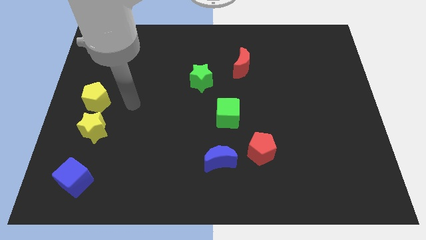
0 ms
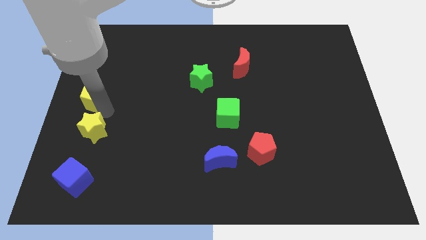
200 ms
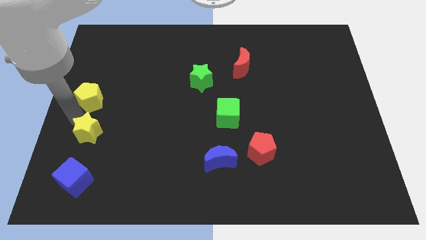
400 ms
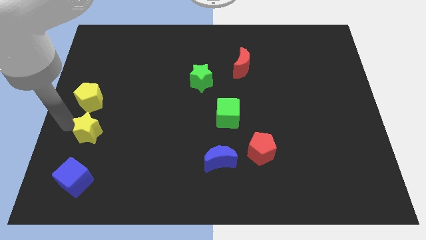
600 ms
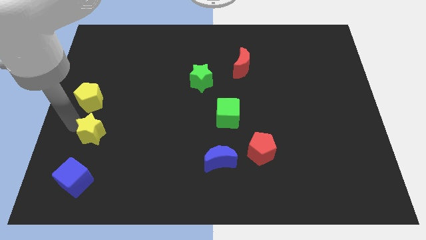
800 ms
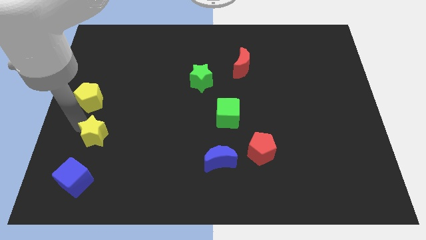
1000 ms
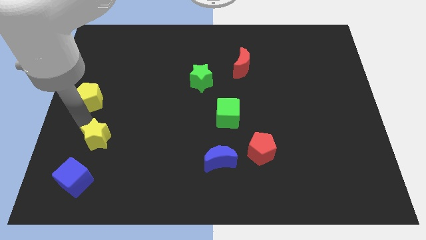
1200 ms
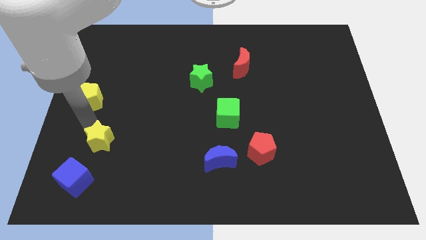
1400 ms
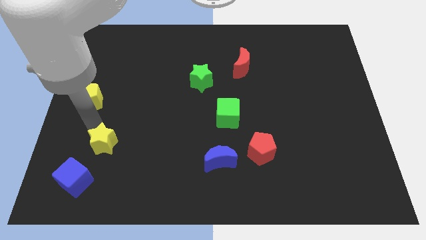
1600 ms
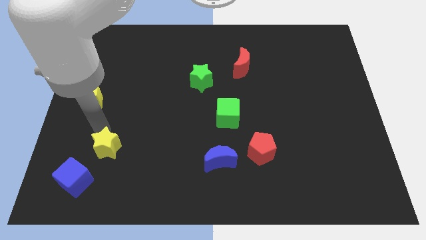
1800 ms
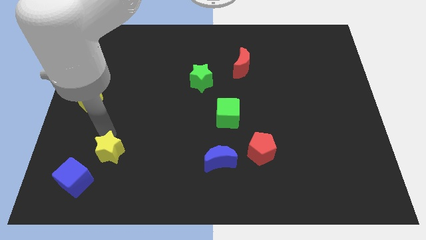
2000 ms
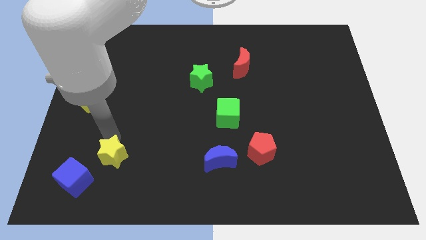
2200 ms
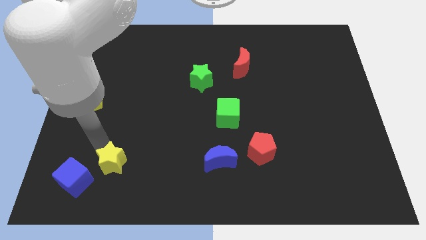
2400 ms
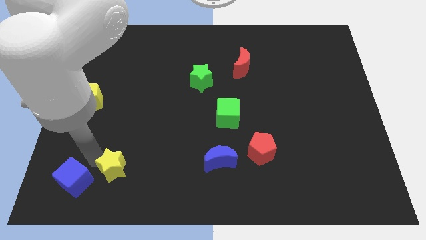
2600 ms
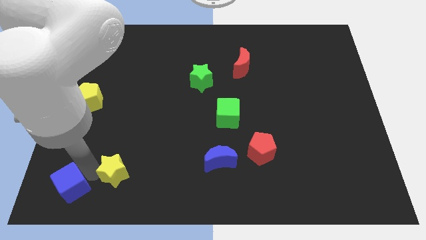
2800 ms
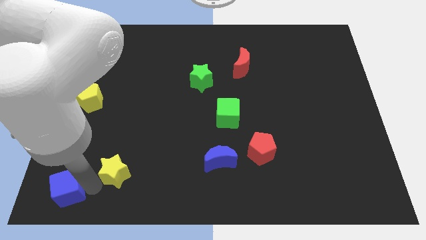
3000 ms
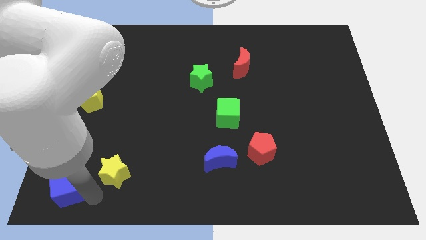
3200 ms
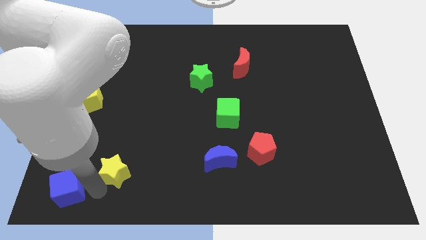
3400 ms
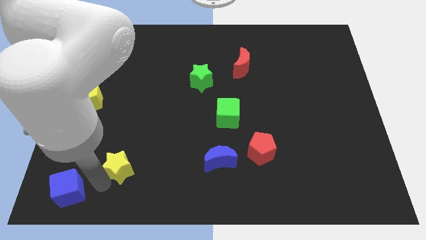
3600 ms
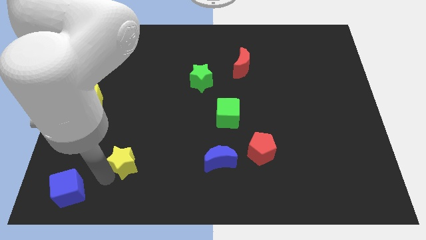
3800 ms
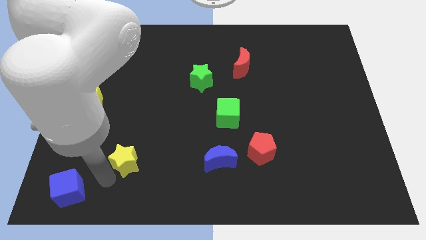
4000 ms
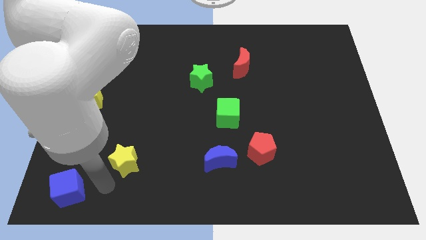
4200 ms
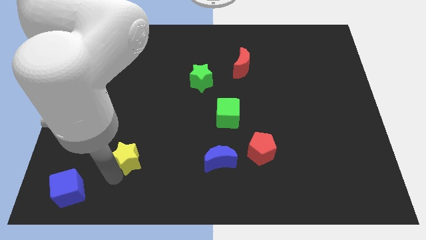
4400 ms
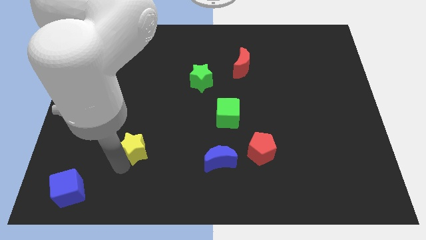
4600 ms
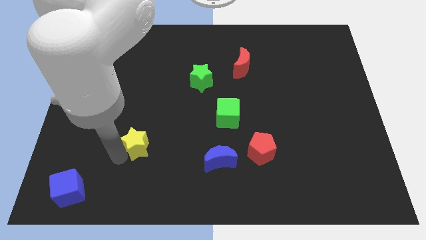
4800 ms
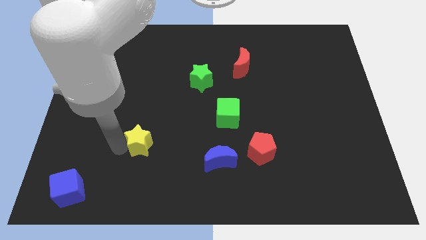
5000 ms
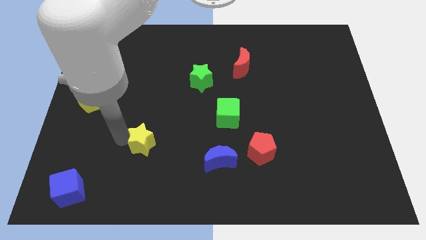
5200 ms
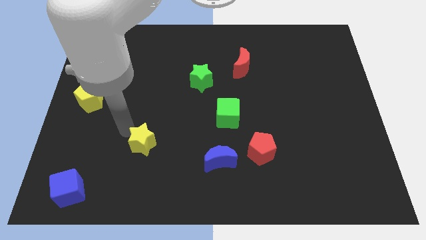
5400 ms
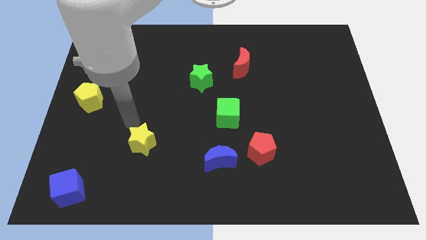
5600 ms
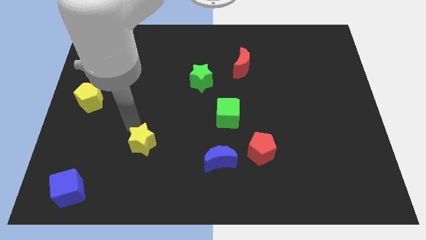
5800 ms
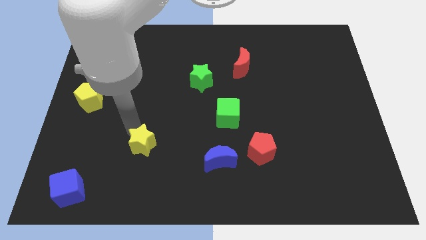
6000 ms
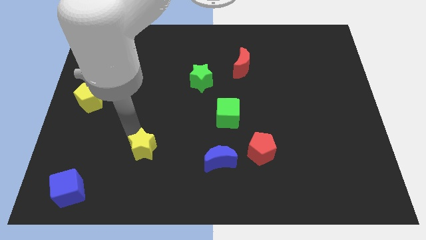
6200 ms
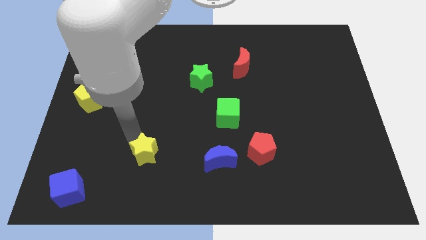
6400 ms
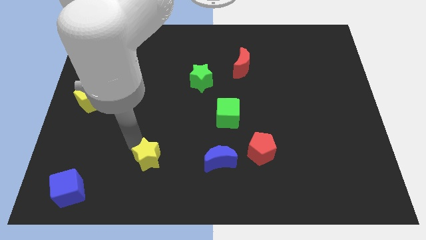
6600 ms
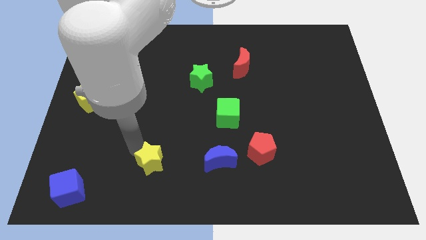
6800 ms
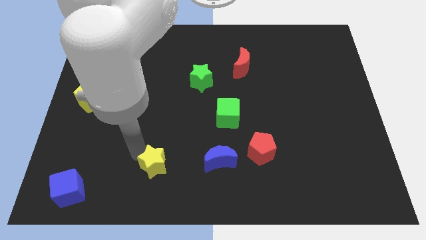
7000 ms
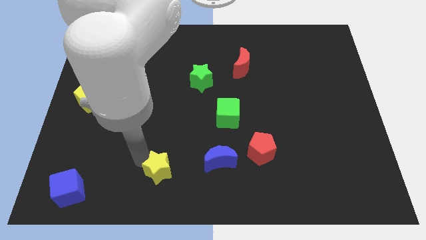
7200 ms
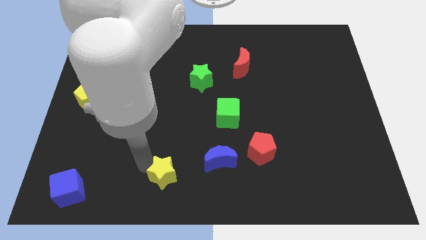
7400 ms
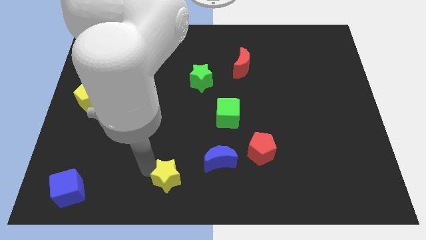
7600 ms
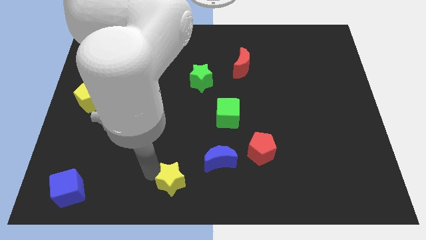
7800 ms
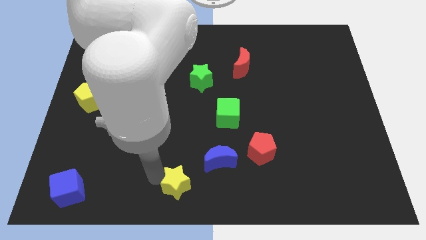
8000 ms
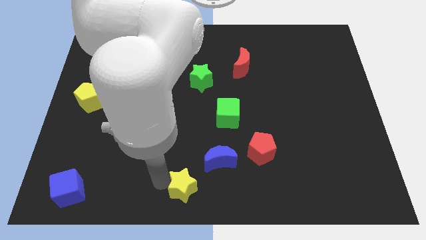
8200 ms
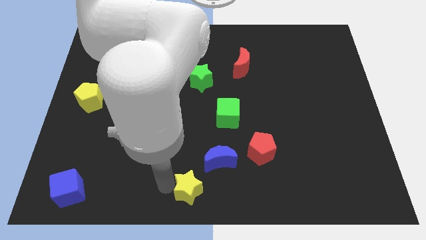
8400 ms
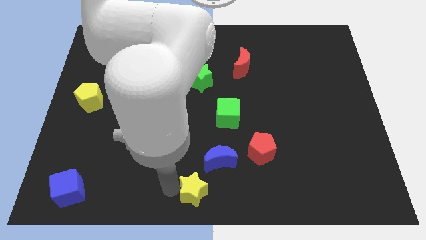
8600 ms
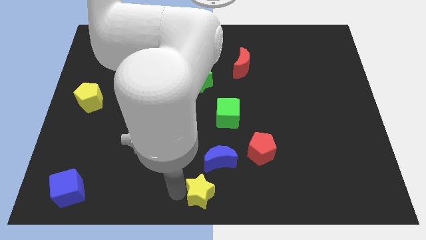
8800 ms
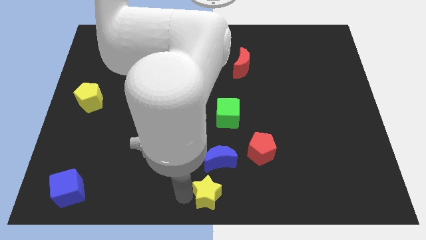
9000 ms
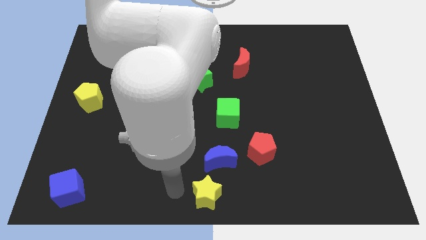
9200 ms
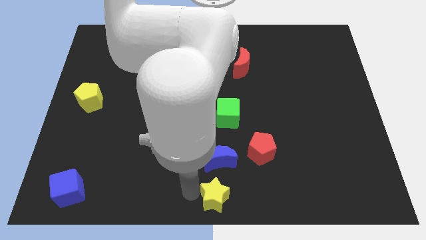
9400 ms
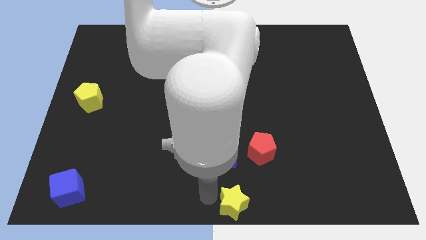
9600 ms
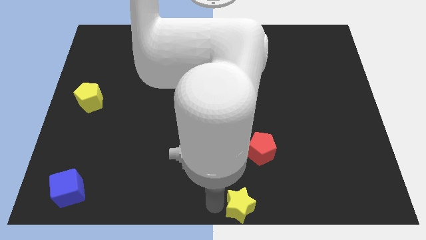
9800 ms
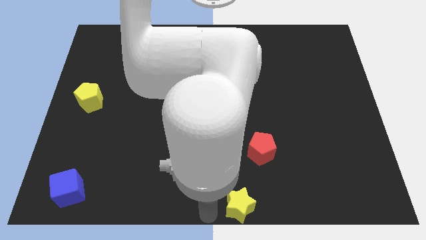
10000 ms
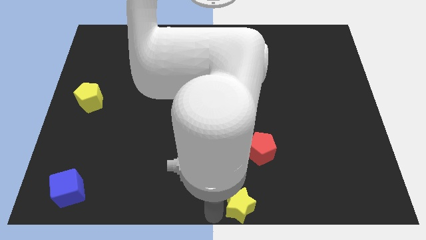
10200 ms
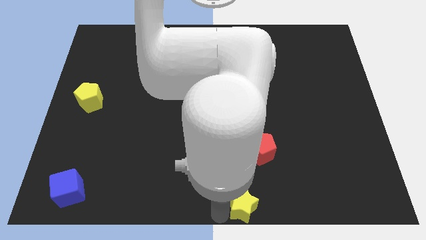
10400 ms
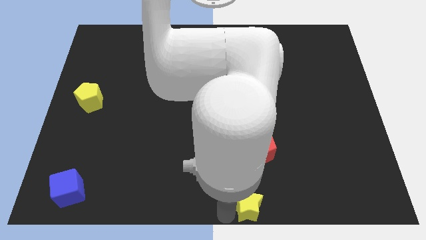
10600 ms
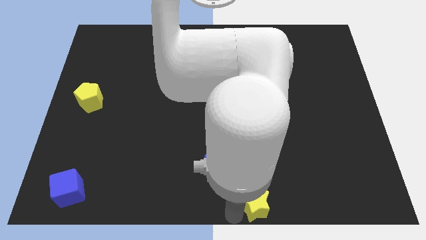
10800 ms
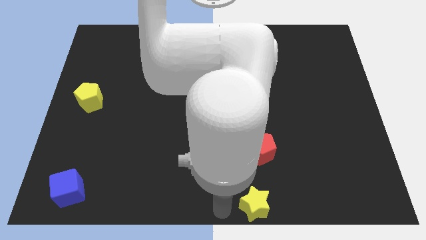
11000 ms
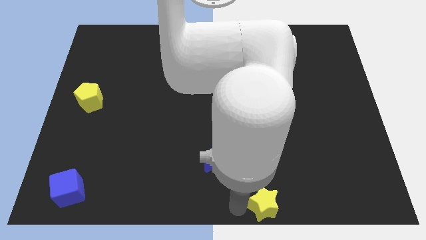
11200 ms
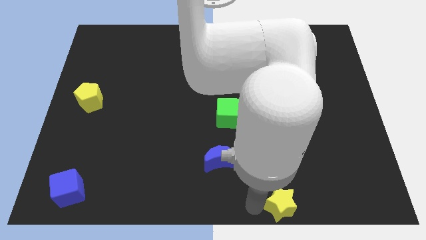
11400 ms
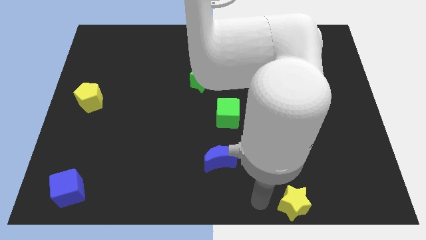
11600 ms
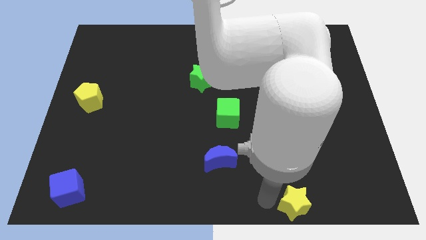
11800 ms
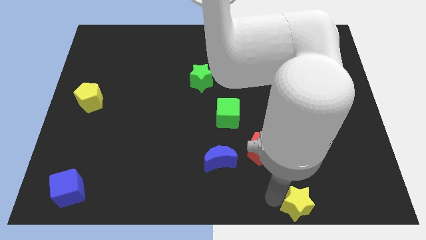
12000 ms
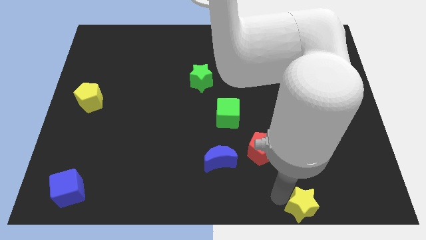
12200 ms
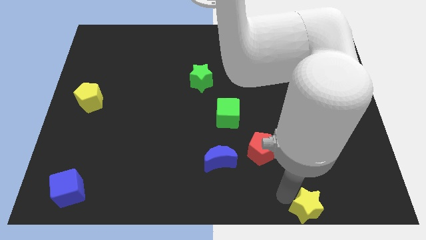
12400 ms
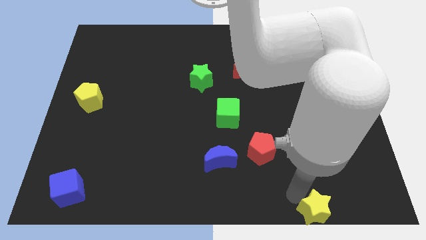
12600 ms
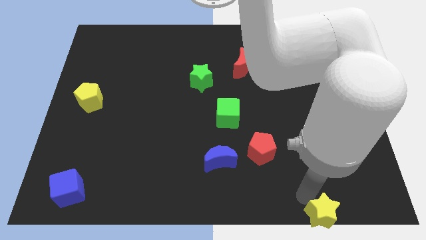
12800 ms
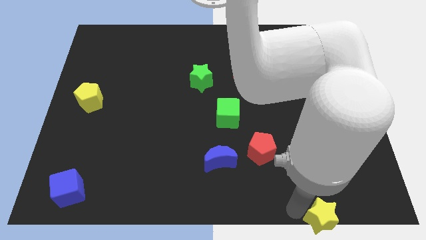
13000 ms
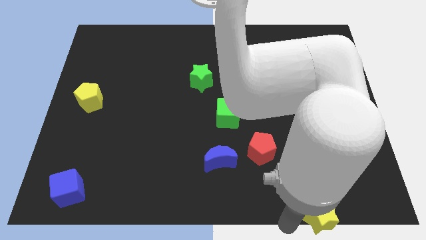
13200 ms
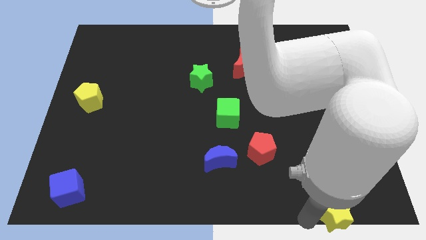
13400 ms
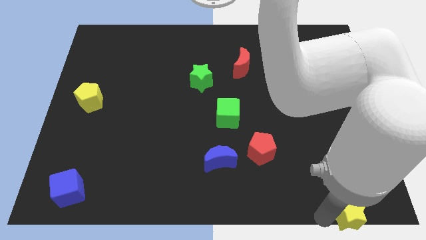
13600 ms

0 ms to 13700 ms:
push the yellow star to the bottom right
